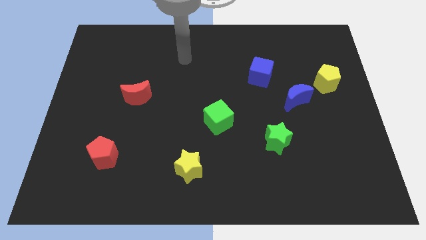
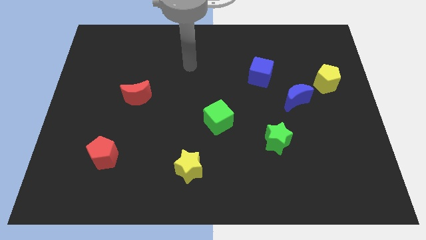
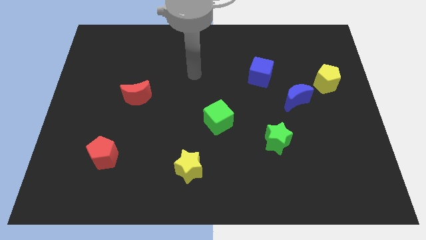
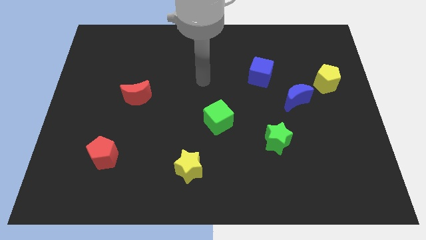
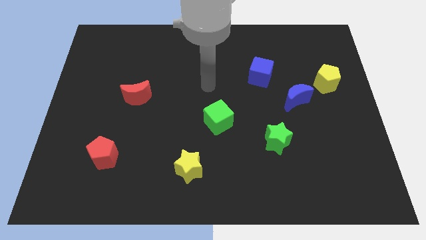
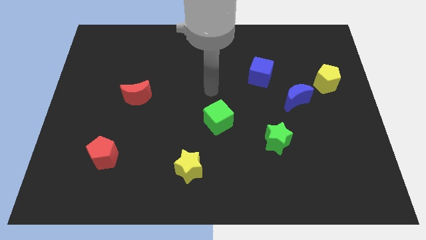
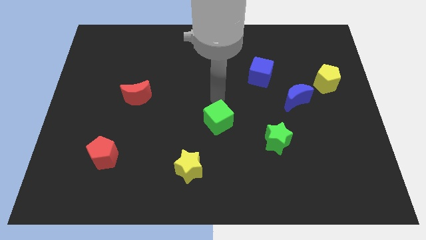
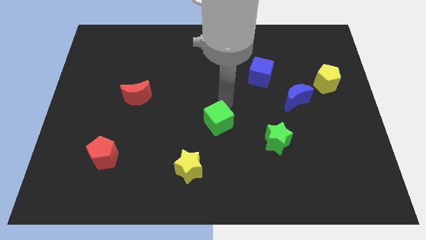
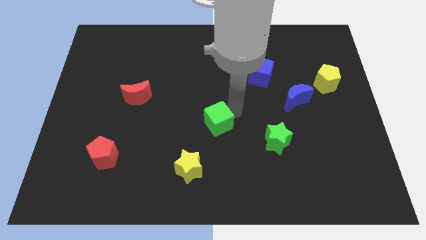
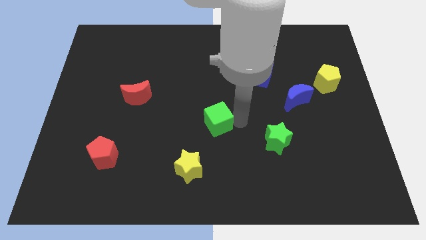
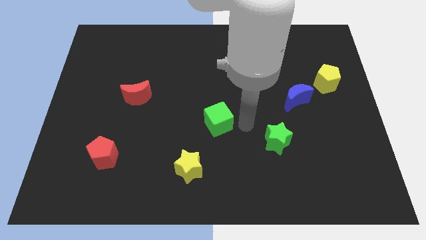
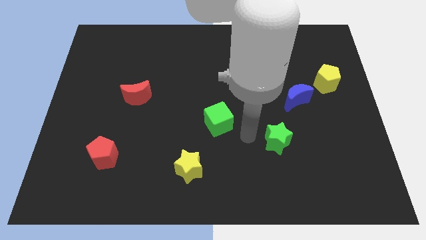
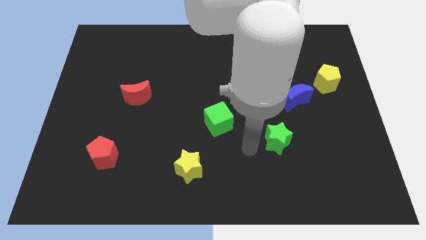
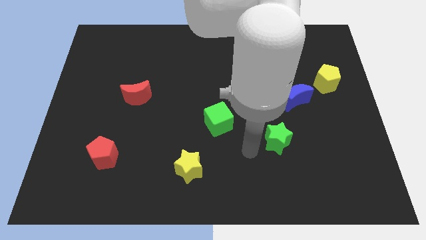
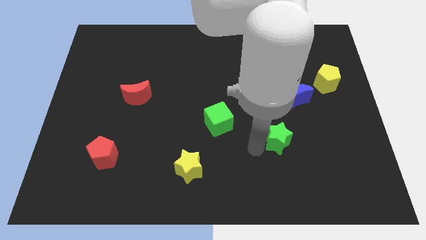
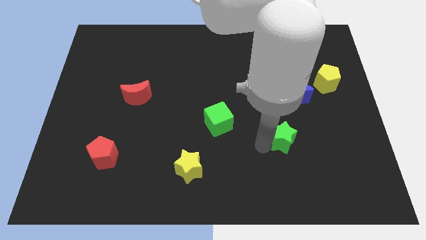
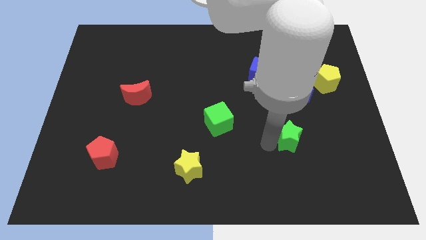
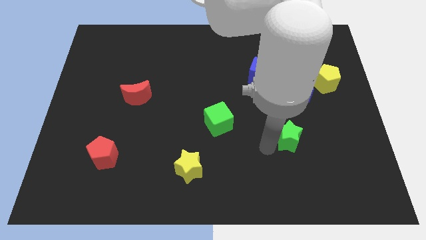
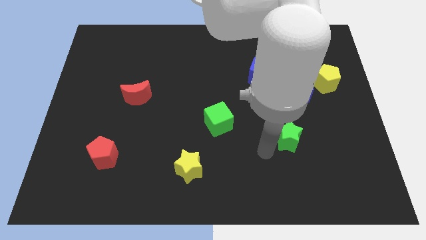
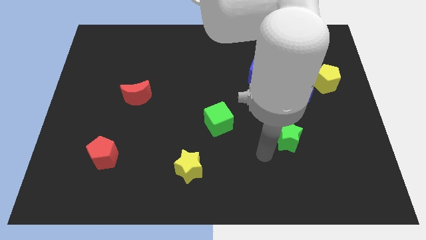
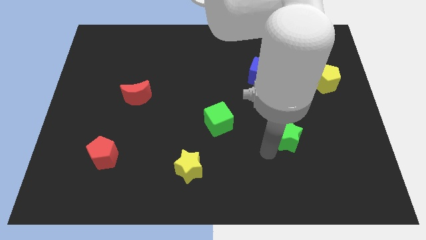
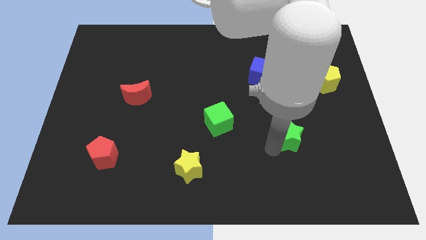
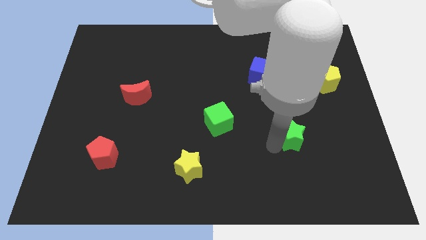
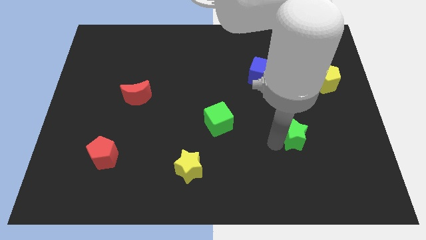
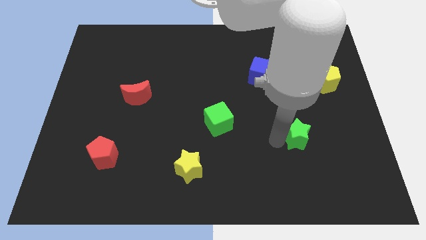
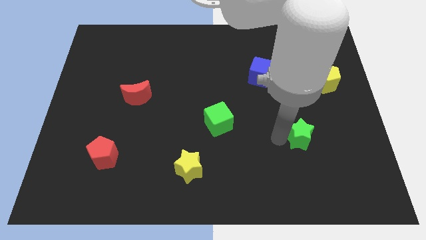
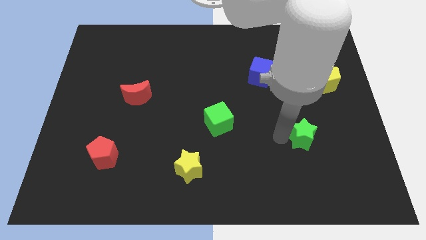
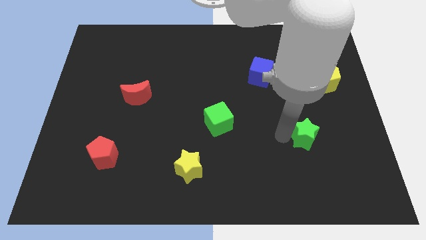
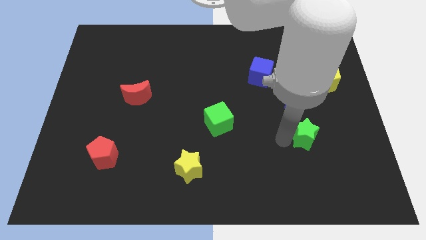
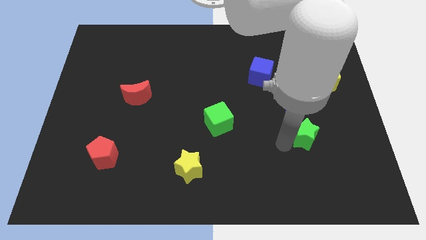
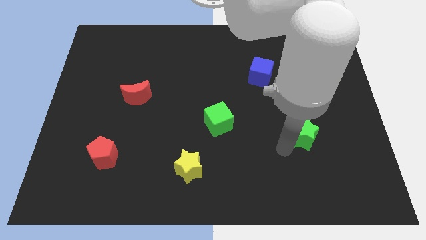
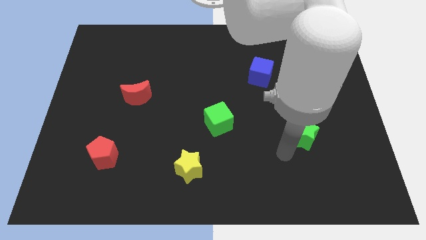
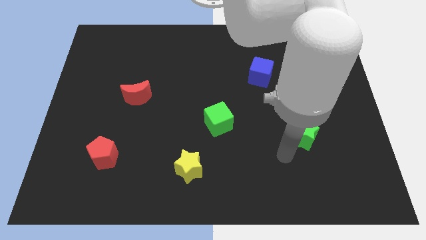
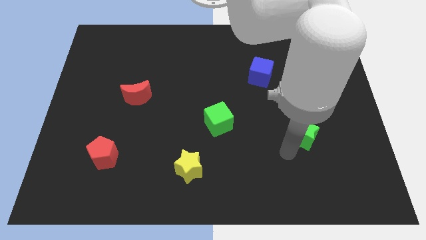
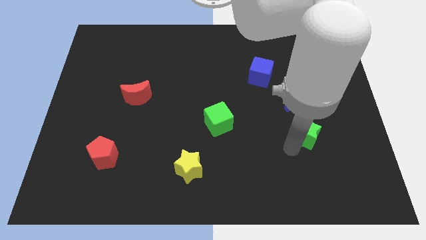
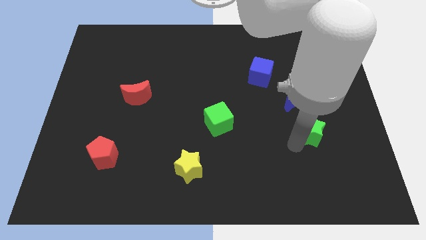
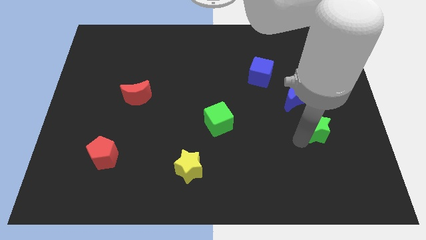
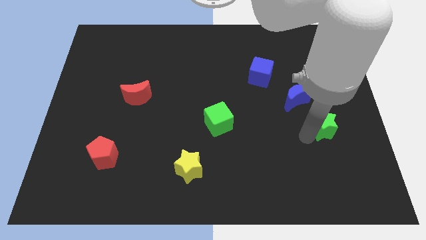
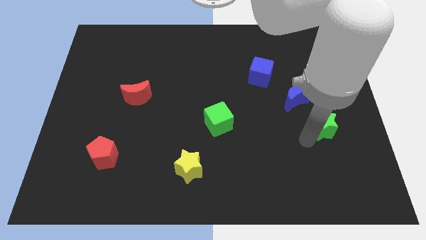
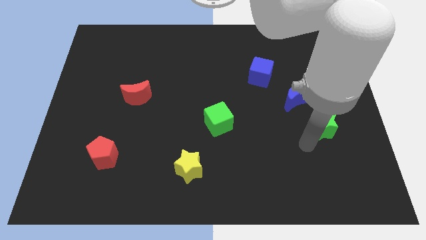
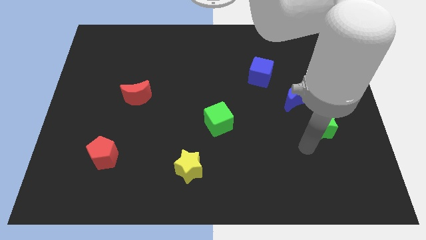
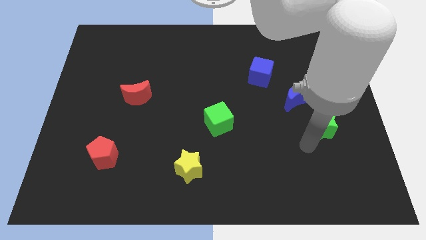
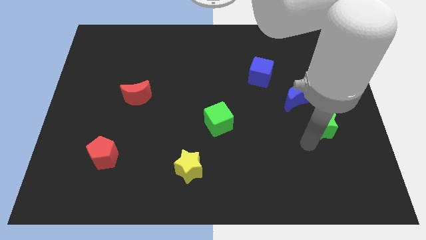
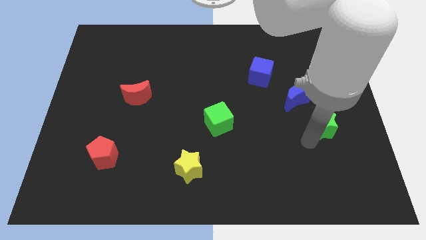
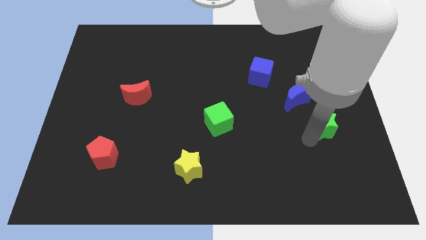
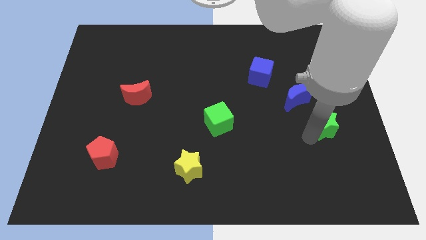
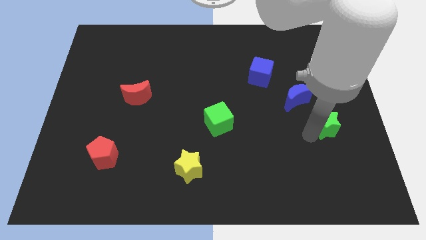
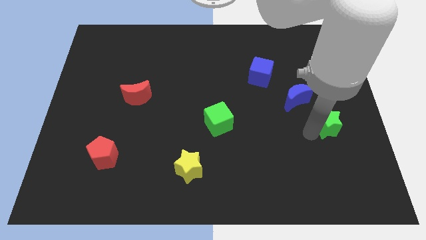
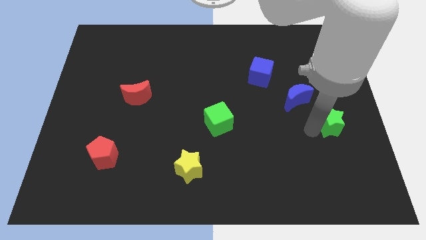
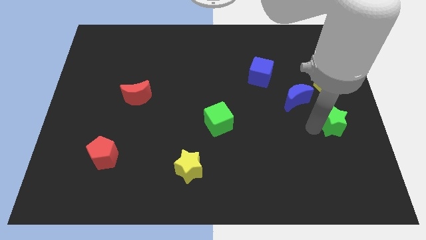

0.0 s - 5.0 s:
put the green star to the right side of the board

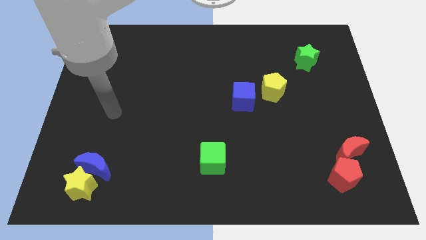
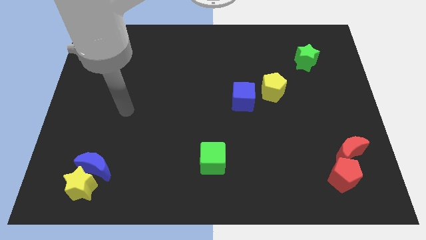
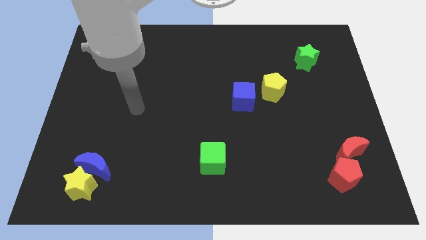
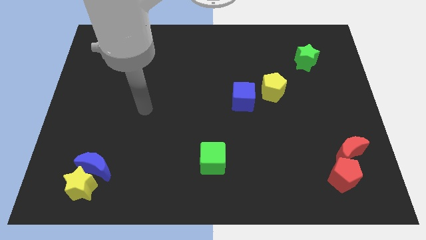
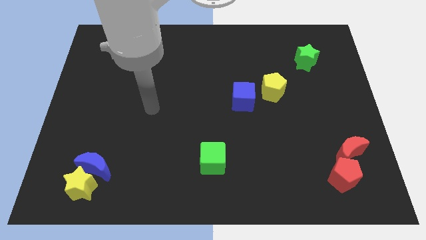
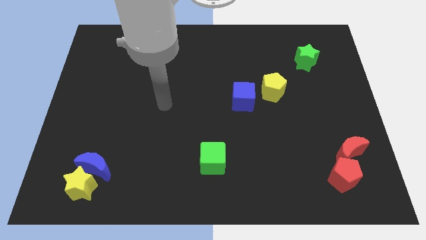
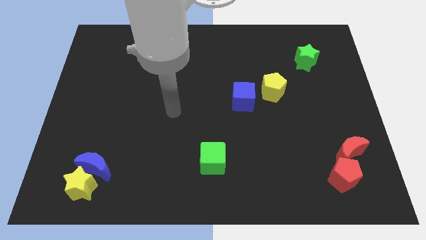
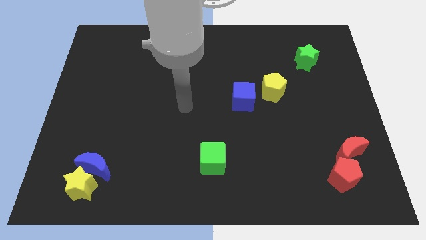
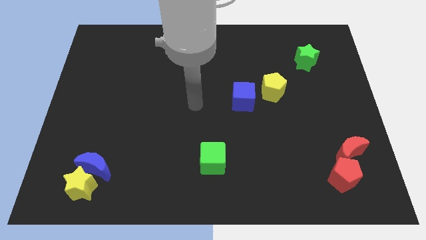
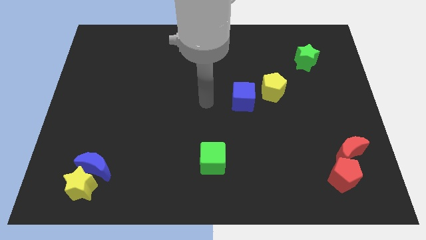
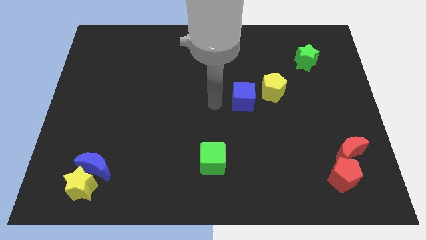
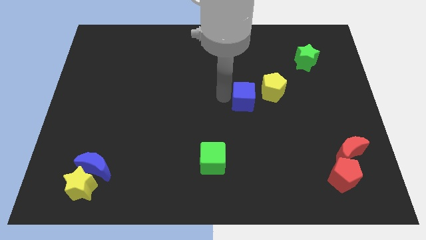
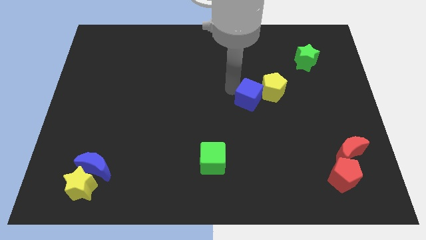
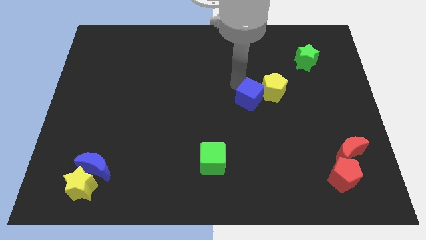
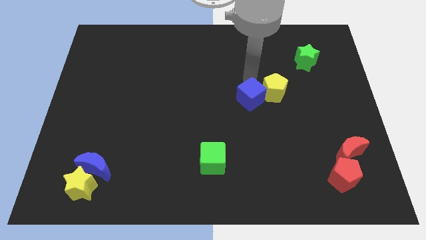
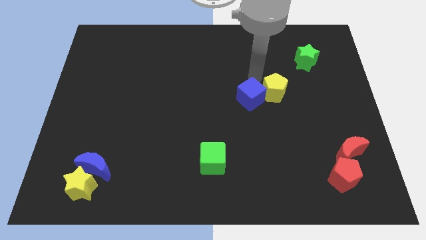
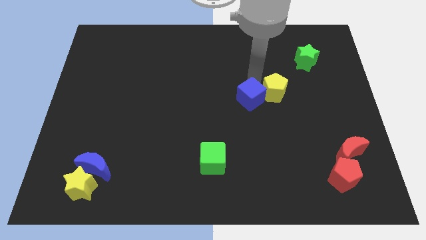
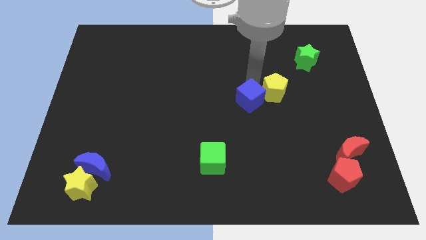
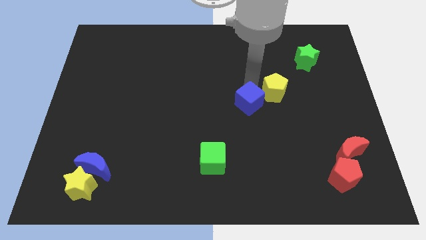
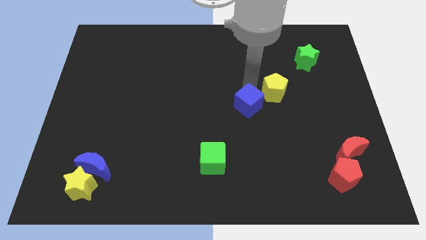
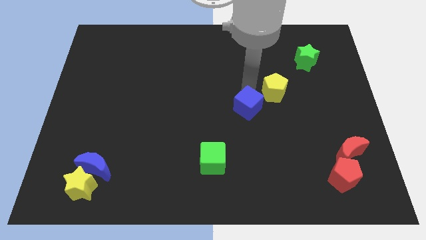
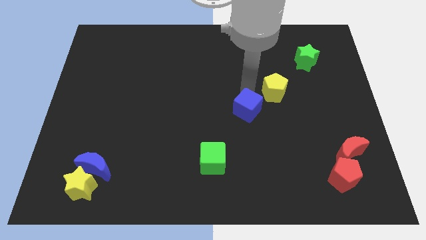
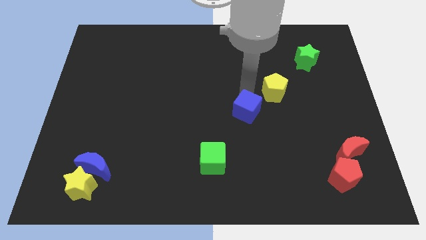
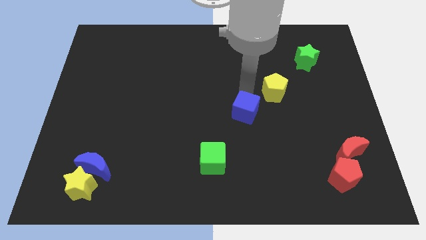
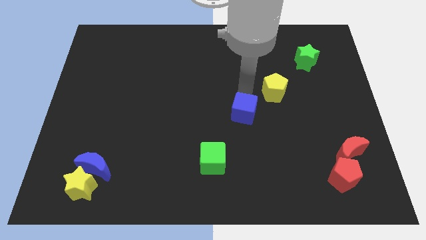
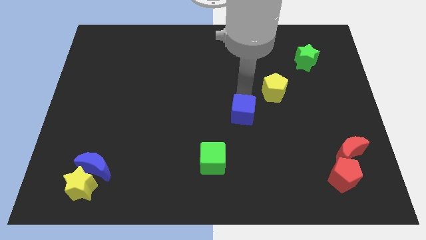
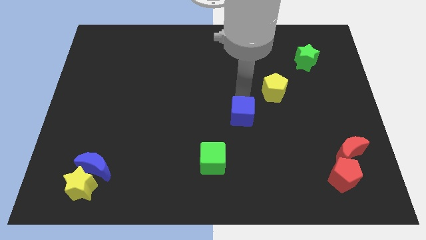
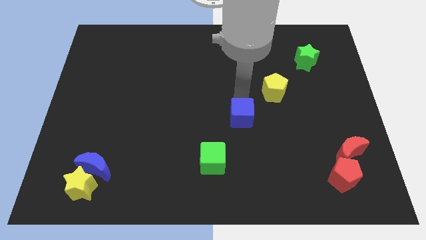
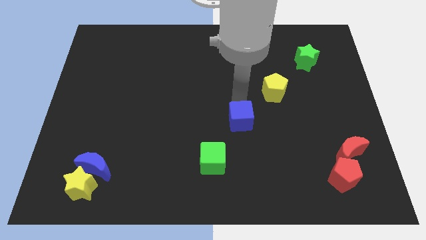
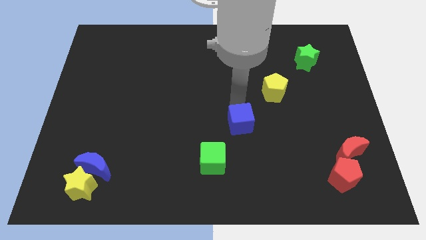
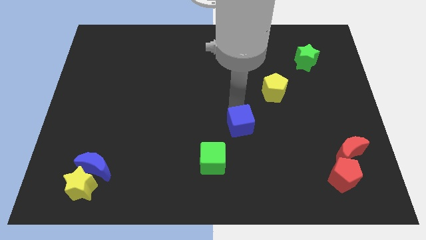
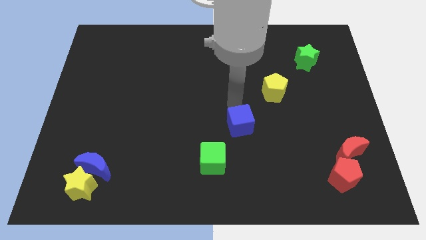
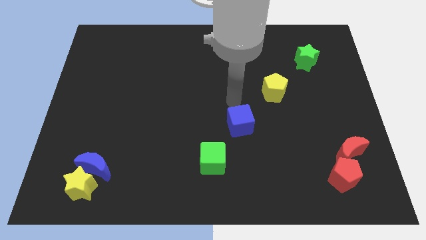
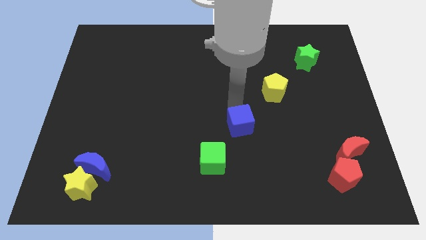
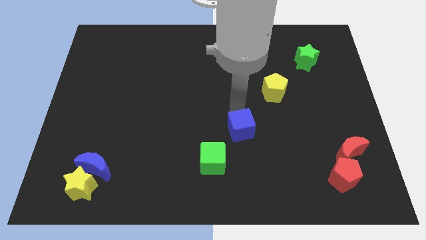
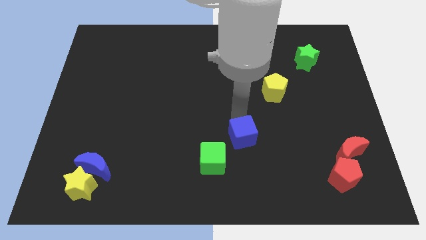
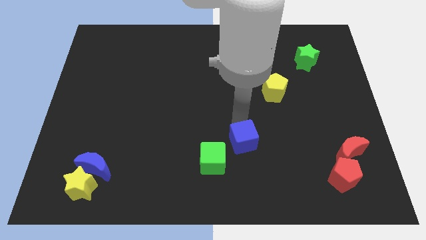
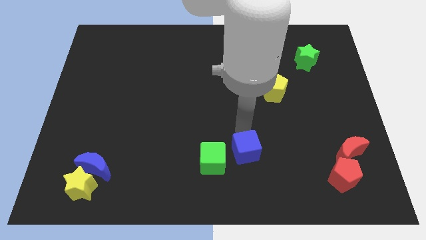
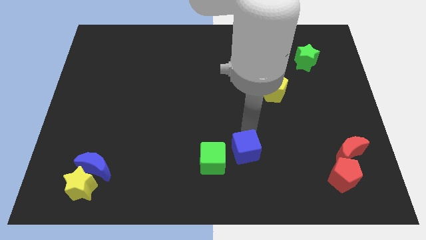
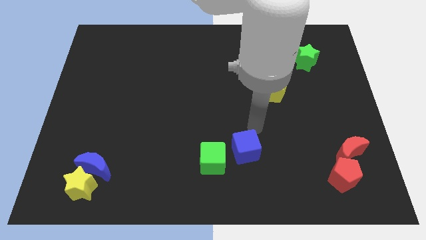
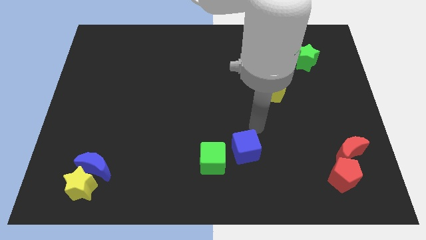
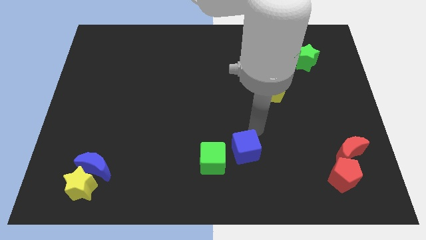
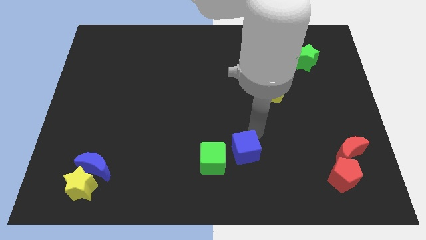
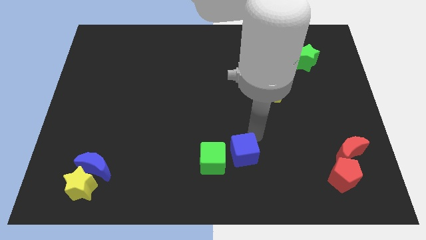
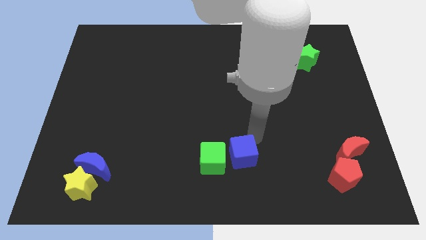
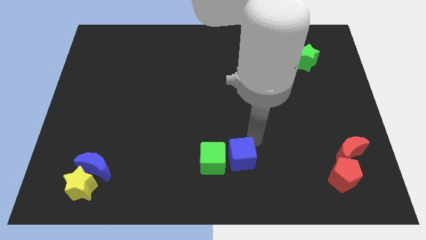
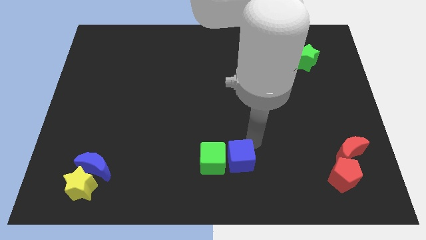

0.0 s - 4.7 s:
move the blue cube to the bottom
